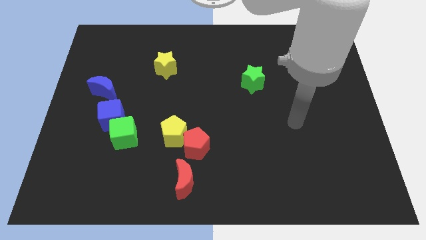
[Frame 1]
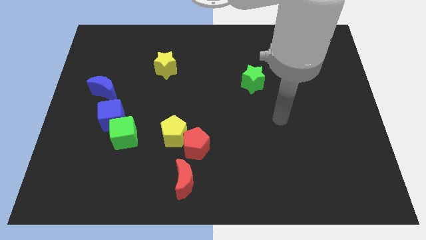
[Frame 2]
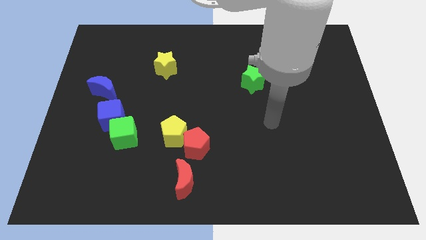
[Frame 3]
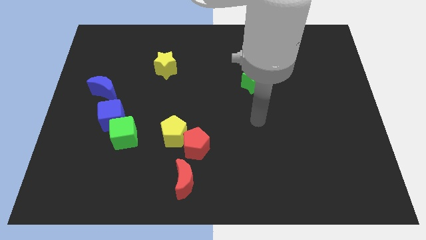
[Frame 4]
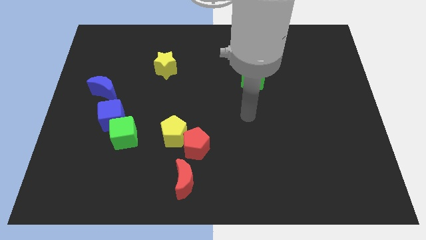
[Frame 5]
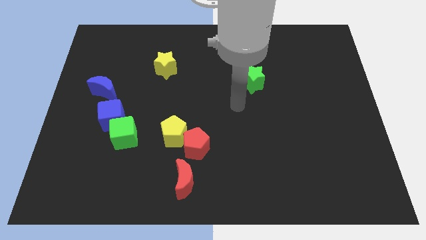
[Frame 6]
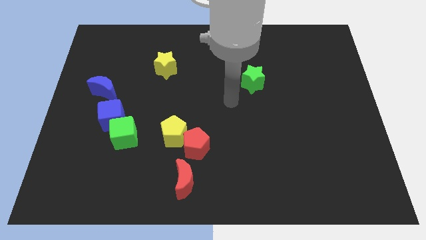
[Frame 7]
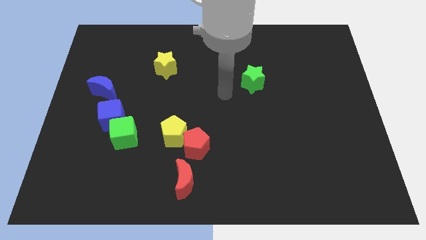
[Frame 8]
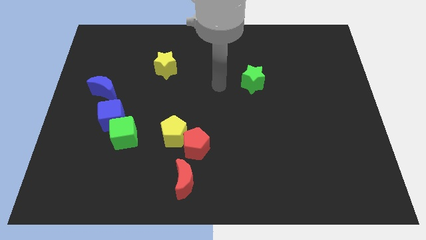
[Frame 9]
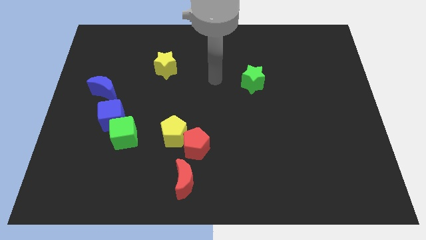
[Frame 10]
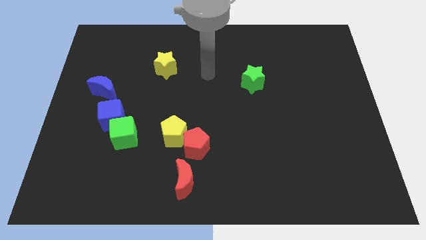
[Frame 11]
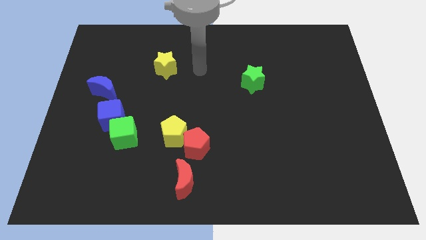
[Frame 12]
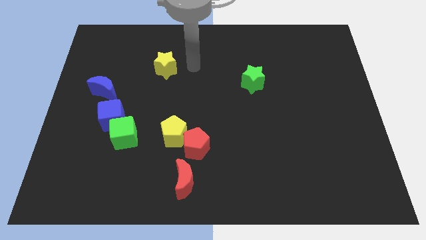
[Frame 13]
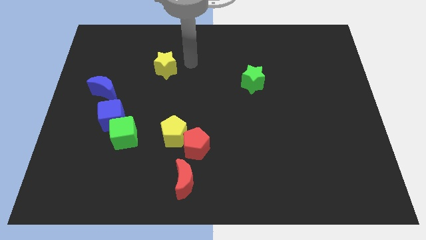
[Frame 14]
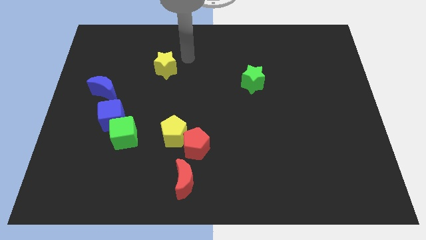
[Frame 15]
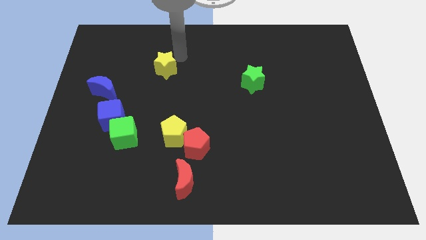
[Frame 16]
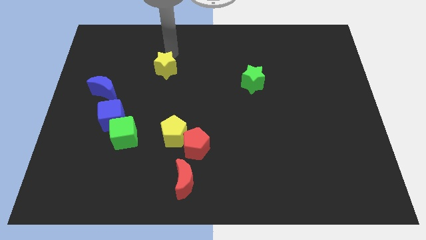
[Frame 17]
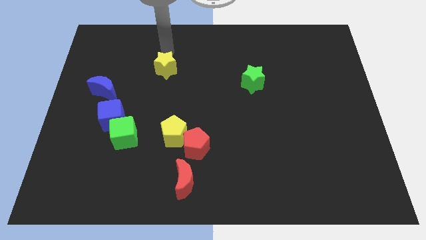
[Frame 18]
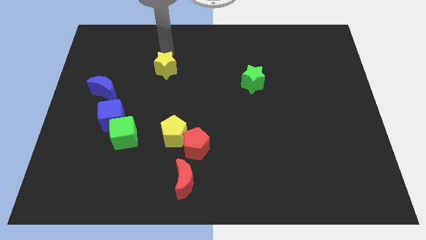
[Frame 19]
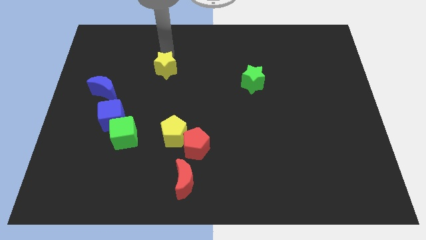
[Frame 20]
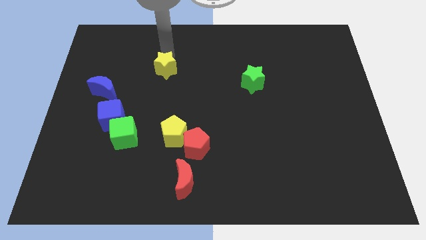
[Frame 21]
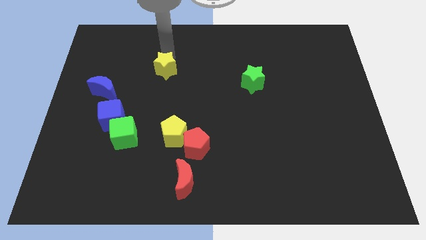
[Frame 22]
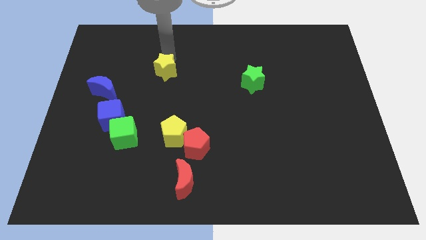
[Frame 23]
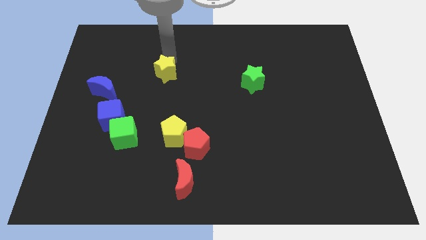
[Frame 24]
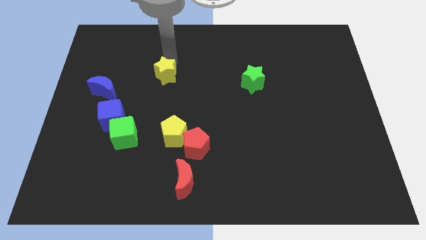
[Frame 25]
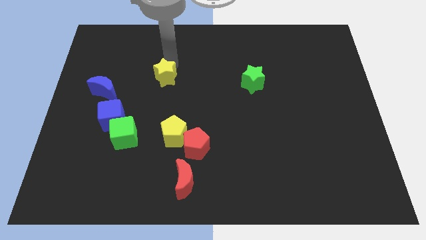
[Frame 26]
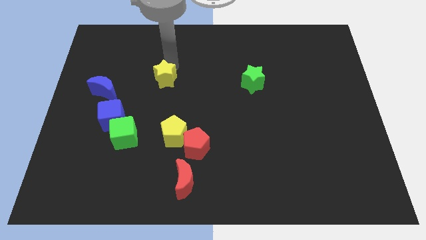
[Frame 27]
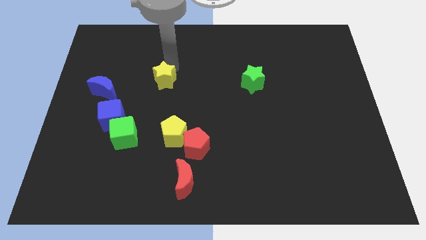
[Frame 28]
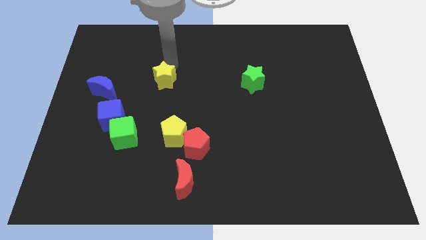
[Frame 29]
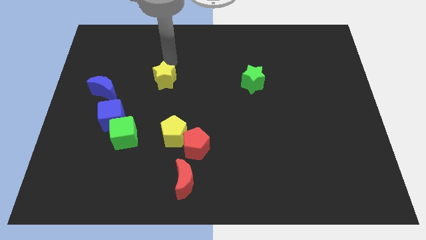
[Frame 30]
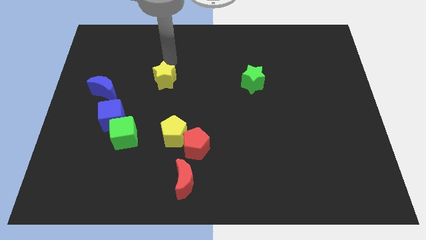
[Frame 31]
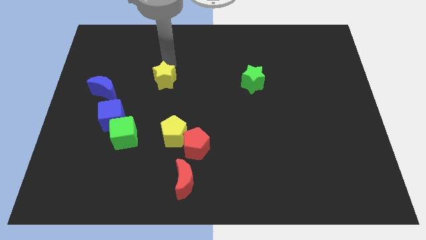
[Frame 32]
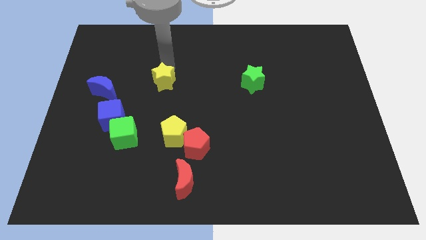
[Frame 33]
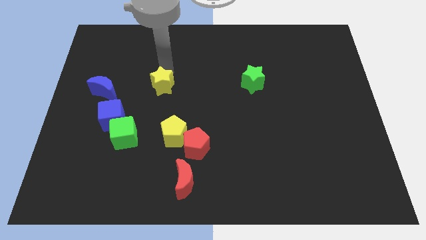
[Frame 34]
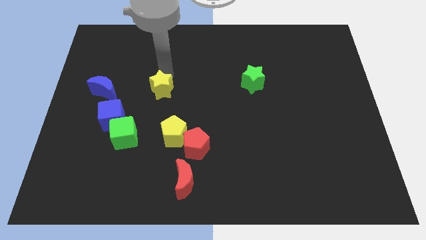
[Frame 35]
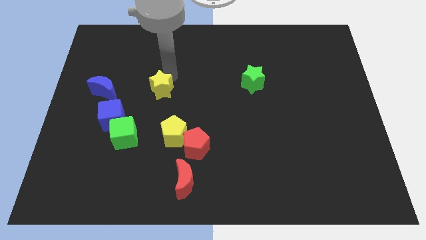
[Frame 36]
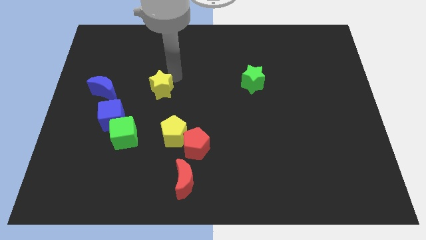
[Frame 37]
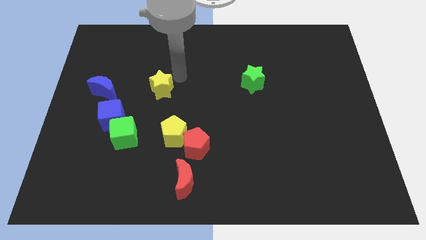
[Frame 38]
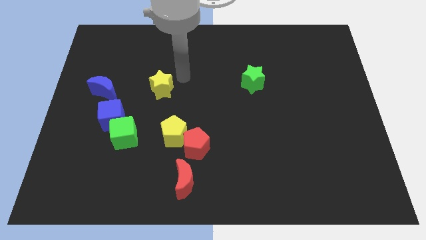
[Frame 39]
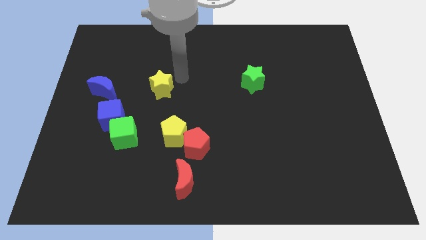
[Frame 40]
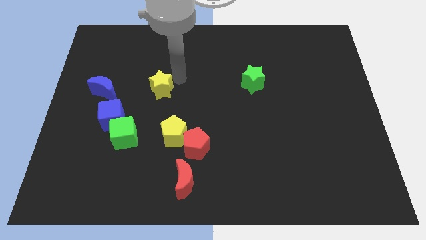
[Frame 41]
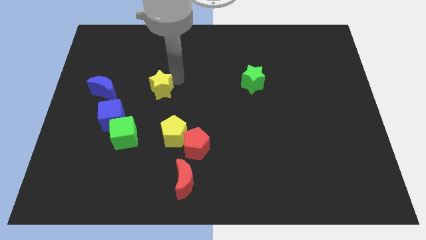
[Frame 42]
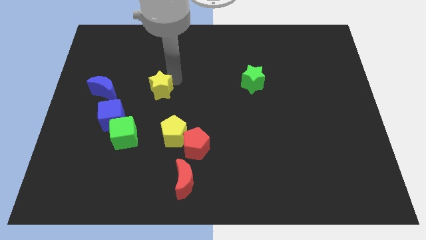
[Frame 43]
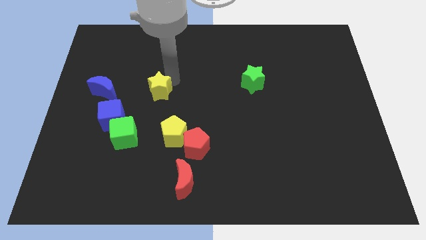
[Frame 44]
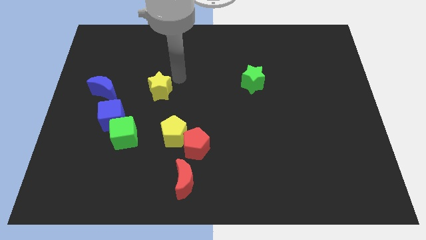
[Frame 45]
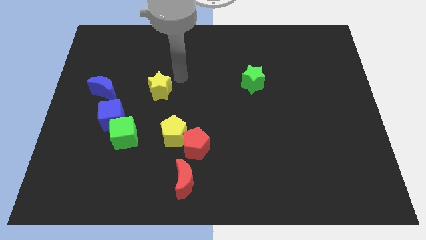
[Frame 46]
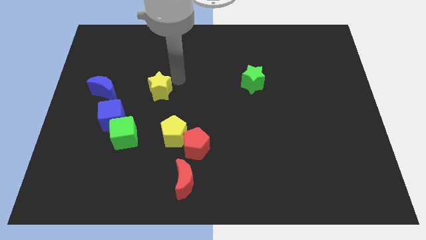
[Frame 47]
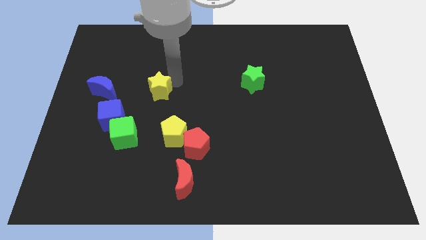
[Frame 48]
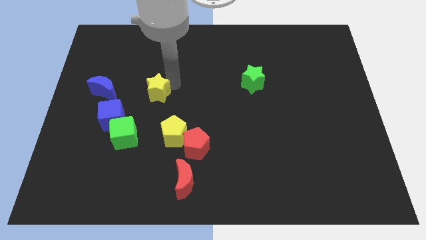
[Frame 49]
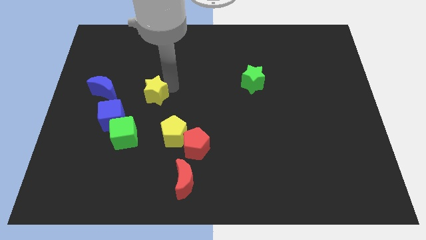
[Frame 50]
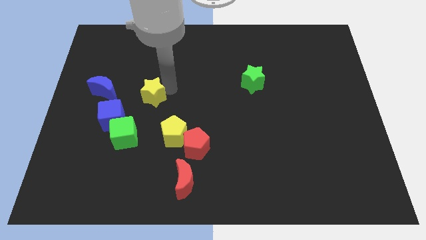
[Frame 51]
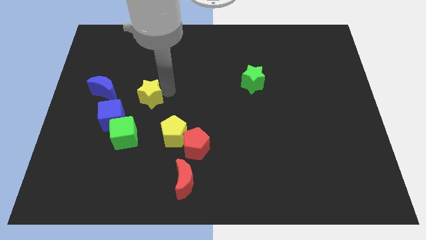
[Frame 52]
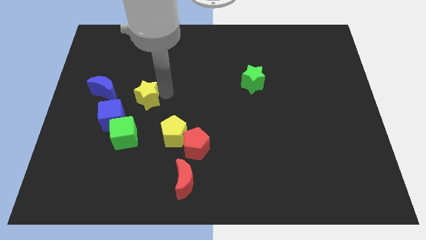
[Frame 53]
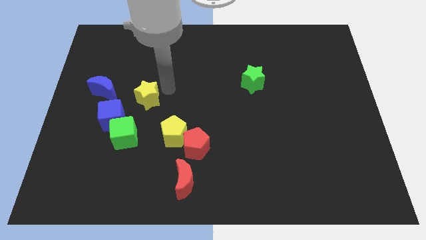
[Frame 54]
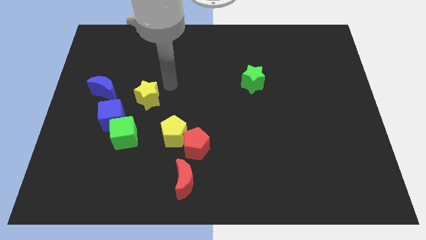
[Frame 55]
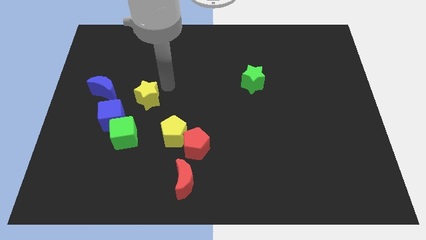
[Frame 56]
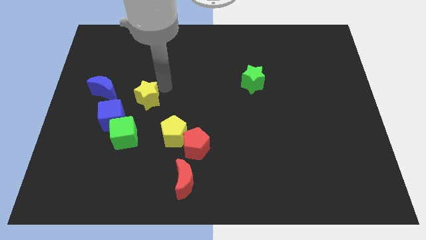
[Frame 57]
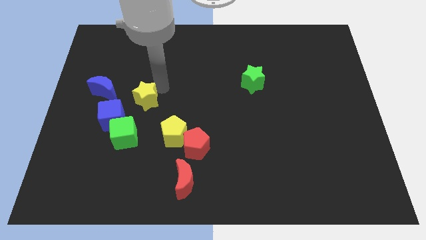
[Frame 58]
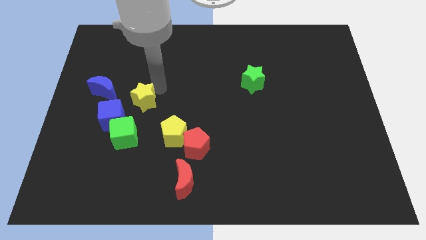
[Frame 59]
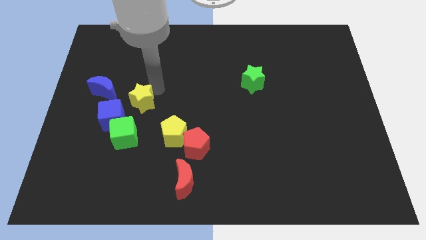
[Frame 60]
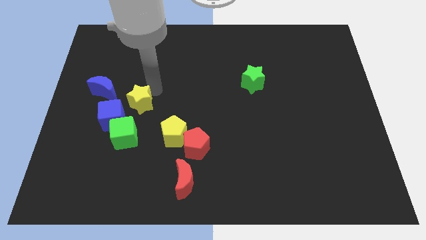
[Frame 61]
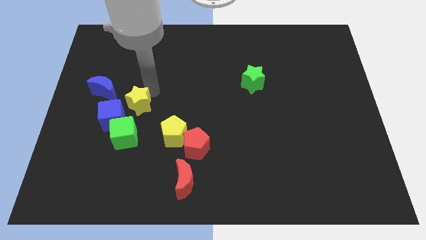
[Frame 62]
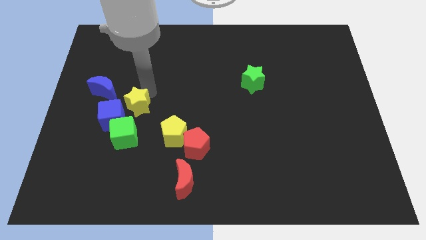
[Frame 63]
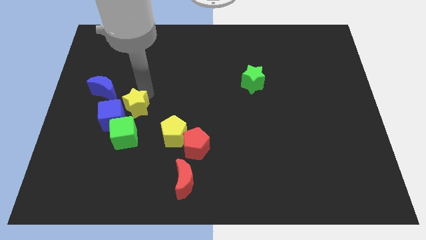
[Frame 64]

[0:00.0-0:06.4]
push the yellow star close to the blue cube

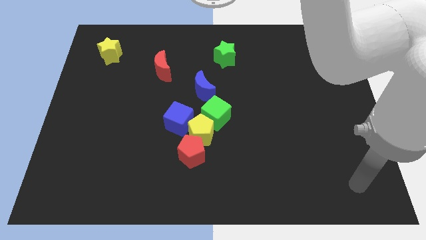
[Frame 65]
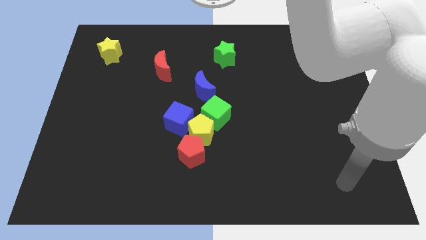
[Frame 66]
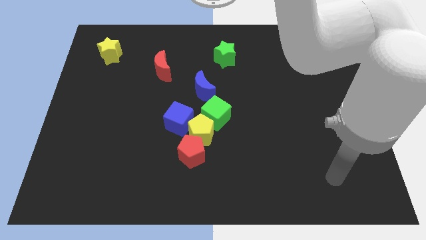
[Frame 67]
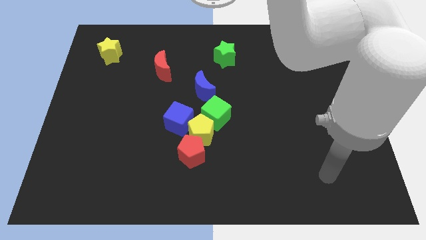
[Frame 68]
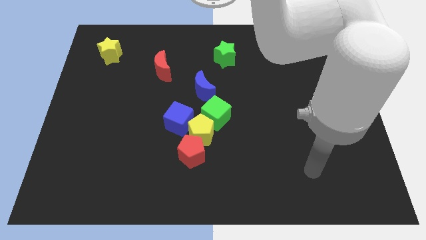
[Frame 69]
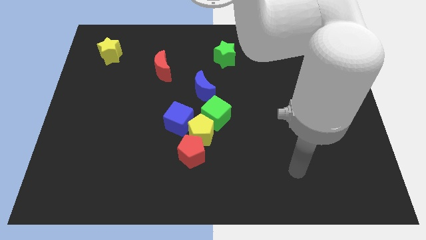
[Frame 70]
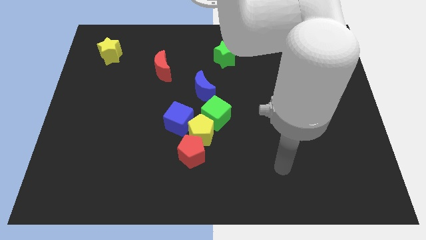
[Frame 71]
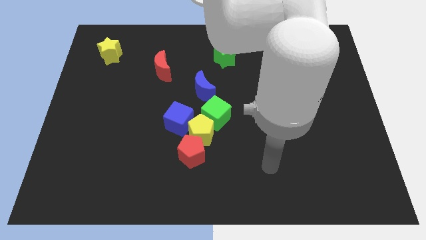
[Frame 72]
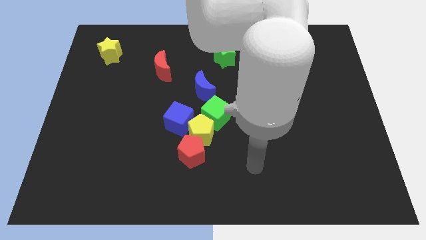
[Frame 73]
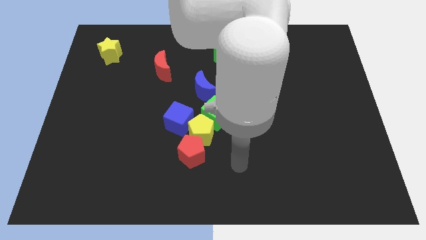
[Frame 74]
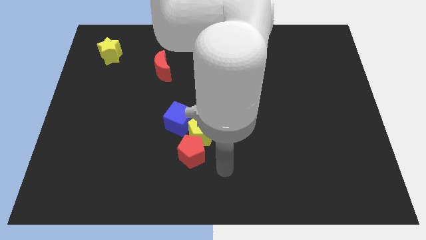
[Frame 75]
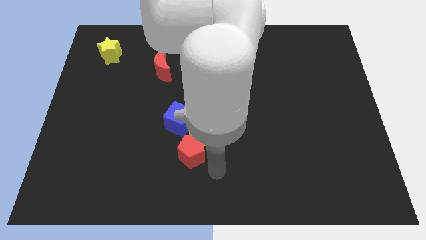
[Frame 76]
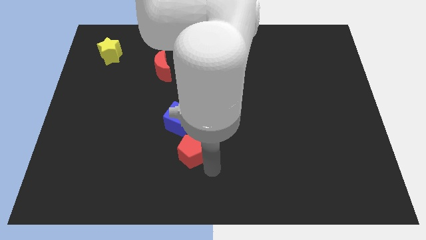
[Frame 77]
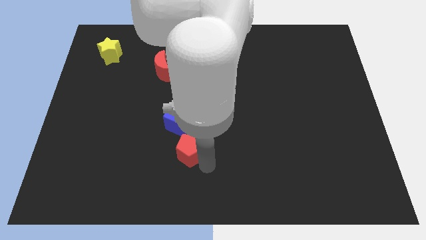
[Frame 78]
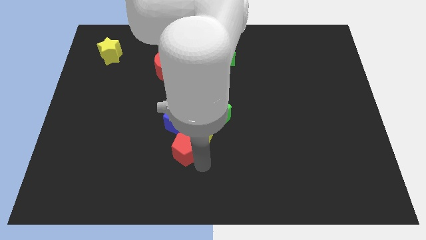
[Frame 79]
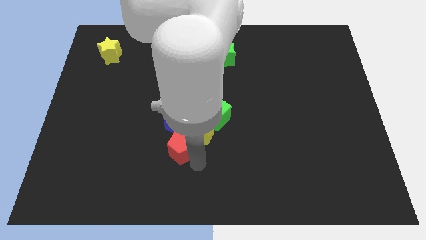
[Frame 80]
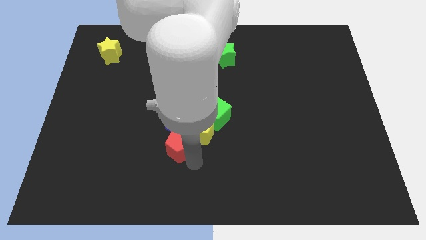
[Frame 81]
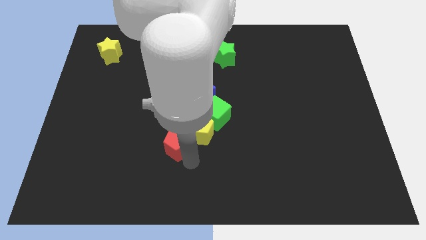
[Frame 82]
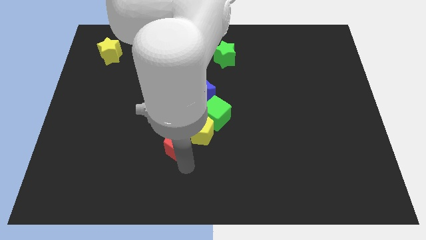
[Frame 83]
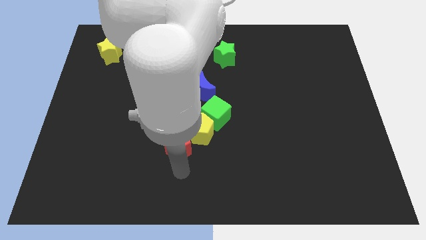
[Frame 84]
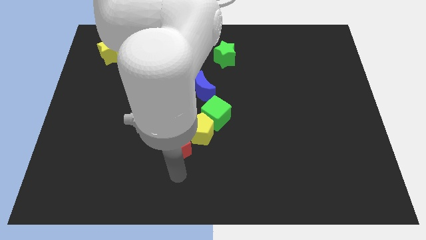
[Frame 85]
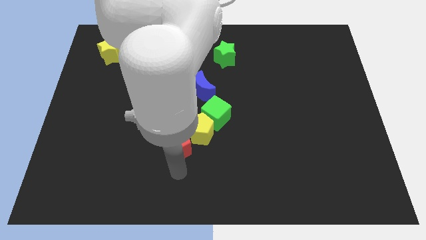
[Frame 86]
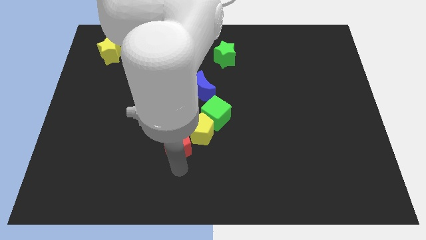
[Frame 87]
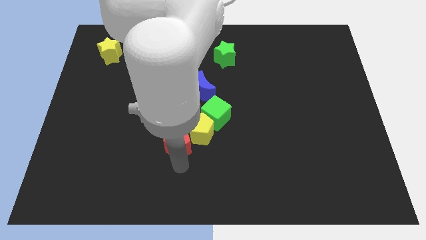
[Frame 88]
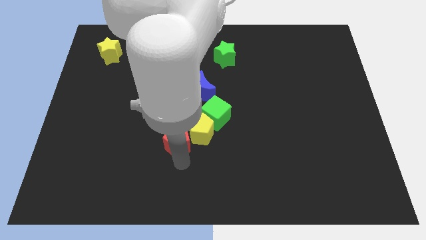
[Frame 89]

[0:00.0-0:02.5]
move the red pentagon to the blue cube
